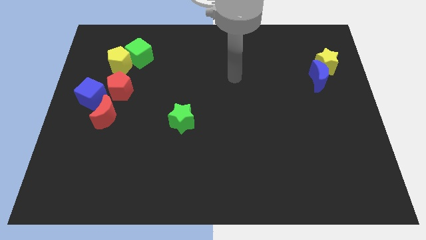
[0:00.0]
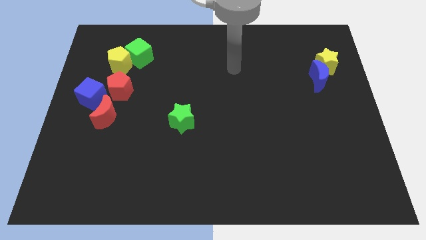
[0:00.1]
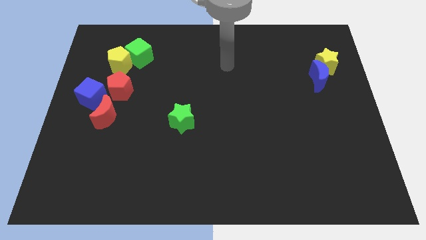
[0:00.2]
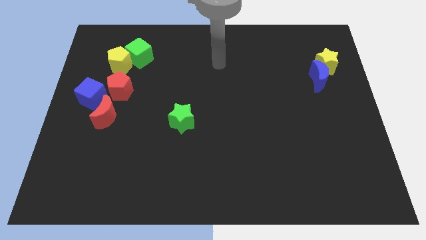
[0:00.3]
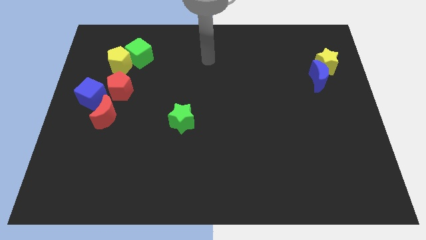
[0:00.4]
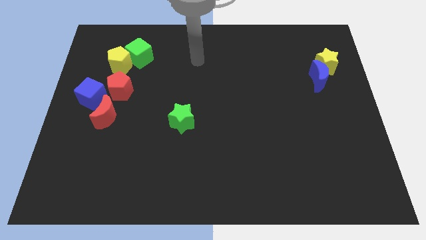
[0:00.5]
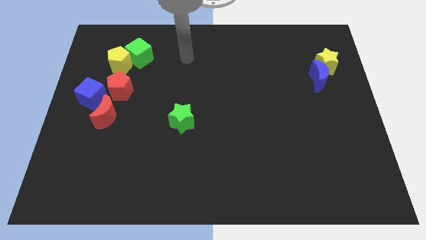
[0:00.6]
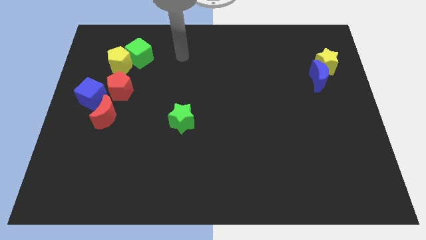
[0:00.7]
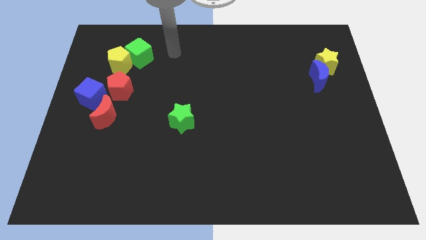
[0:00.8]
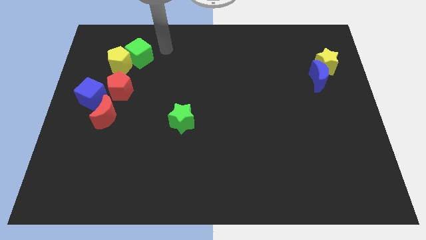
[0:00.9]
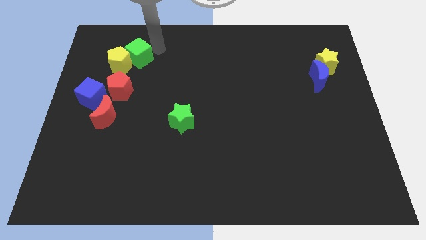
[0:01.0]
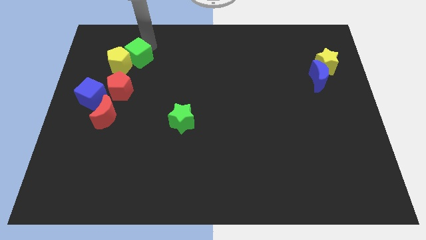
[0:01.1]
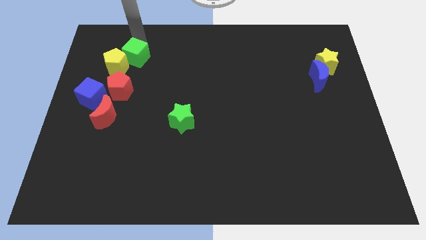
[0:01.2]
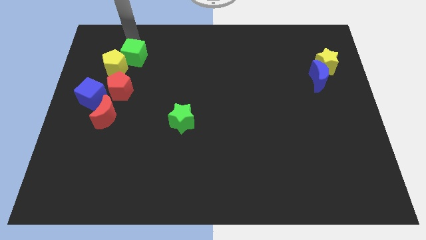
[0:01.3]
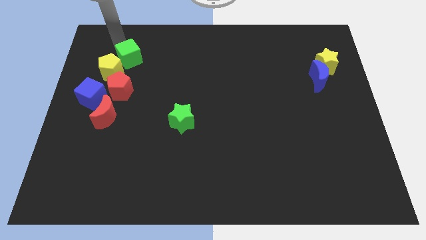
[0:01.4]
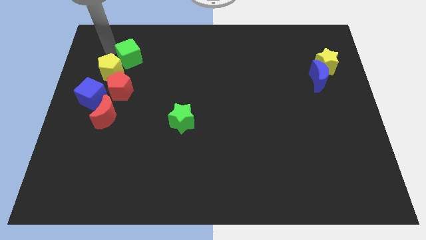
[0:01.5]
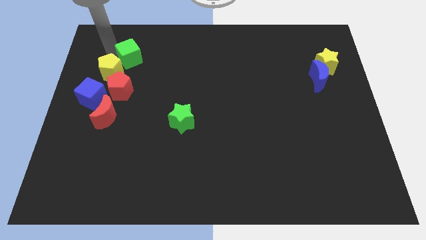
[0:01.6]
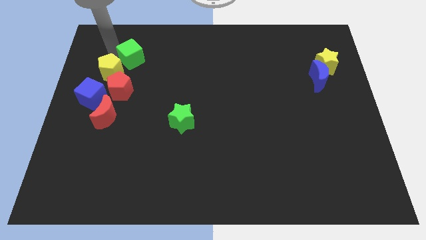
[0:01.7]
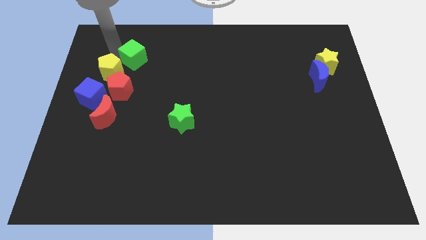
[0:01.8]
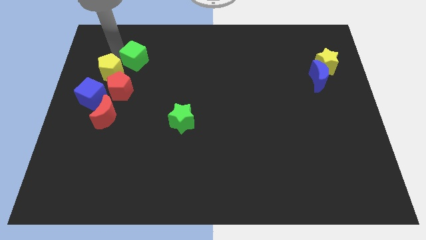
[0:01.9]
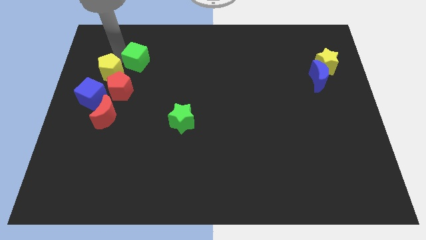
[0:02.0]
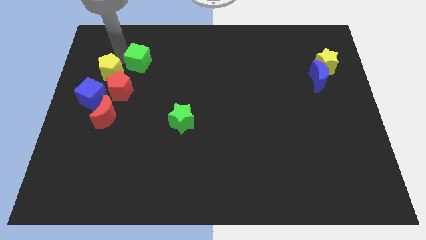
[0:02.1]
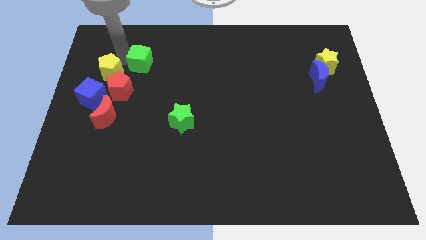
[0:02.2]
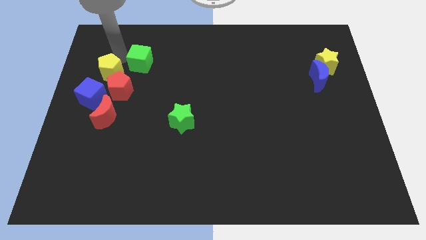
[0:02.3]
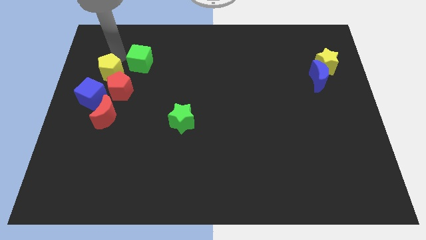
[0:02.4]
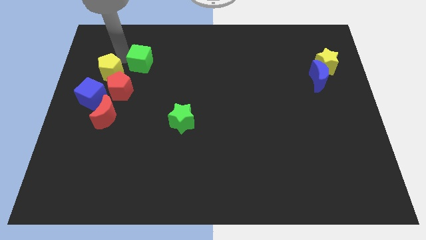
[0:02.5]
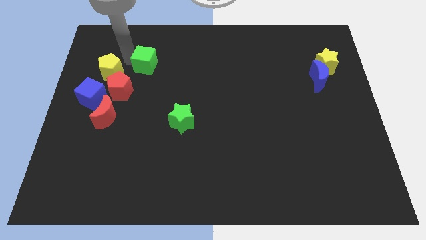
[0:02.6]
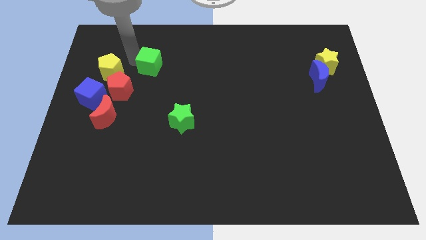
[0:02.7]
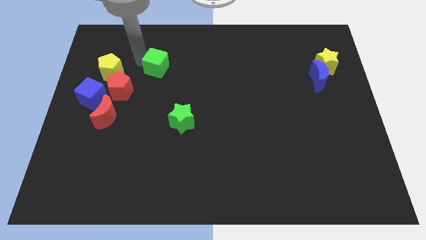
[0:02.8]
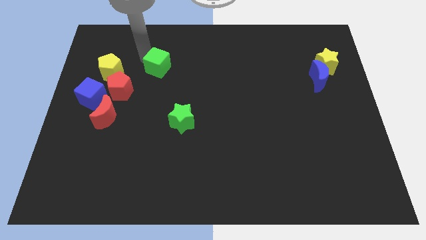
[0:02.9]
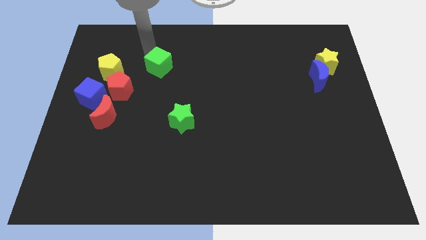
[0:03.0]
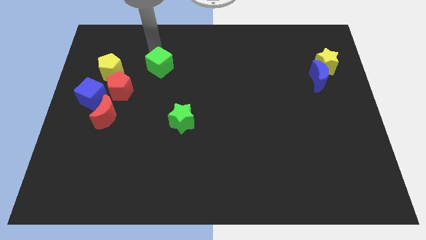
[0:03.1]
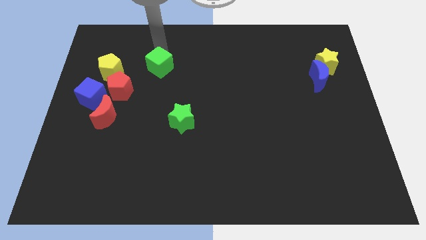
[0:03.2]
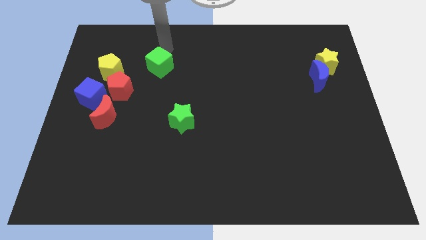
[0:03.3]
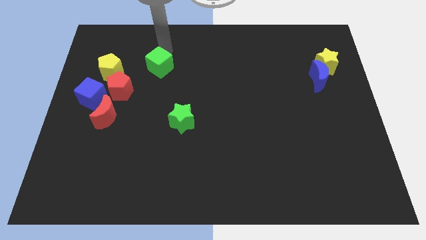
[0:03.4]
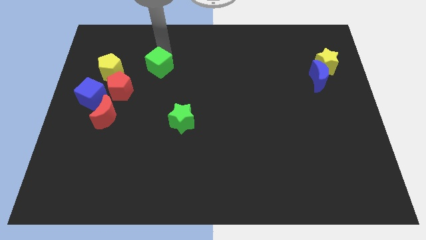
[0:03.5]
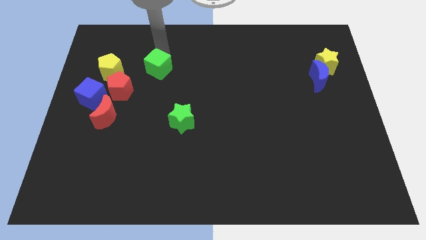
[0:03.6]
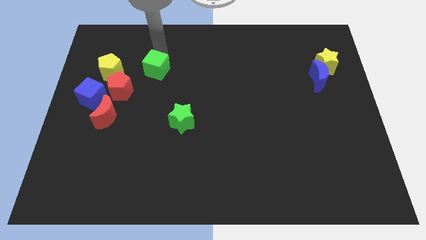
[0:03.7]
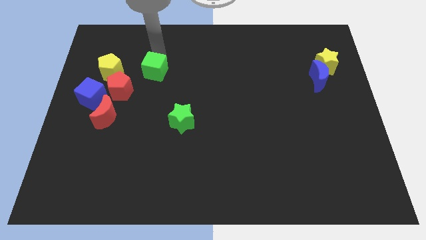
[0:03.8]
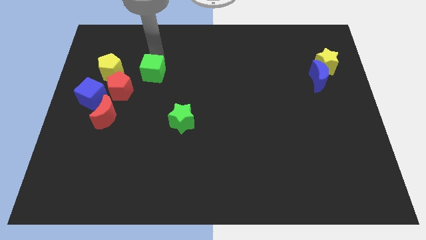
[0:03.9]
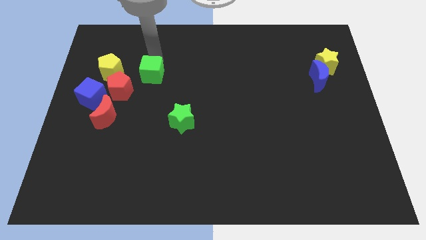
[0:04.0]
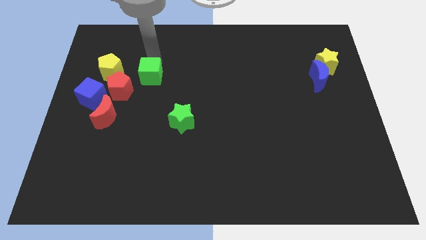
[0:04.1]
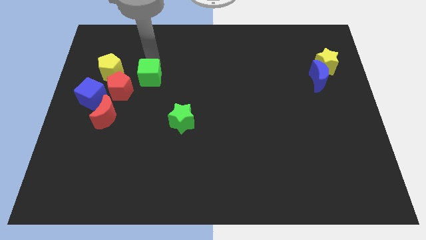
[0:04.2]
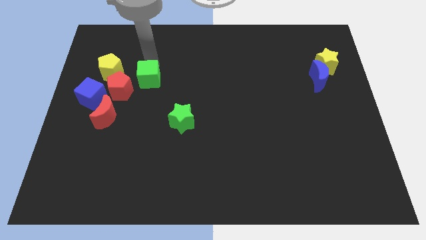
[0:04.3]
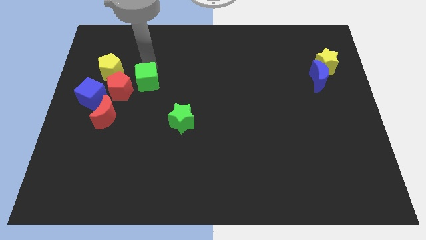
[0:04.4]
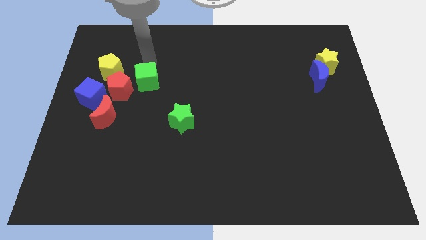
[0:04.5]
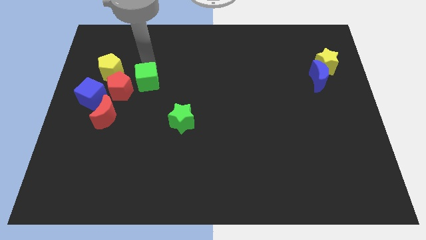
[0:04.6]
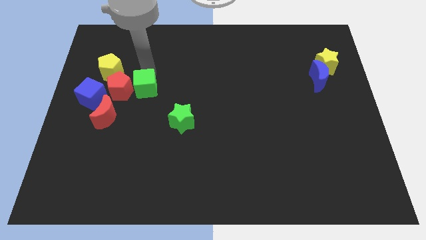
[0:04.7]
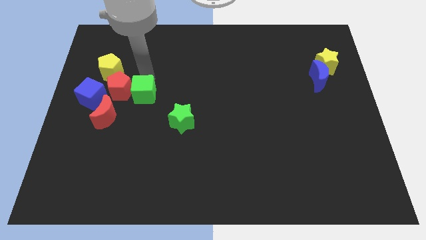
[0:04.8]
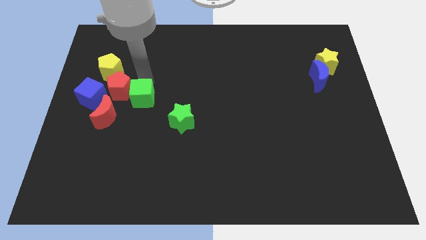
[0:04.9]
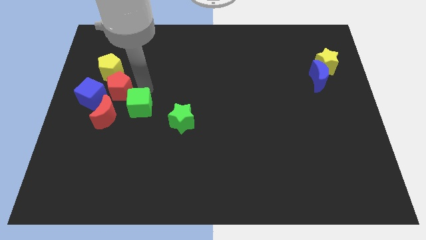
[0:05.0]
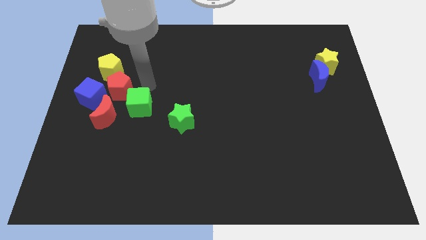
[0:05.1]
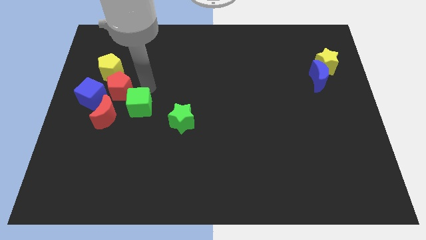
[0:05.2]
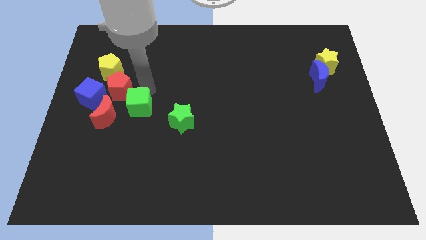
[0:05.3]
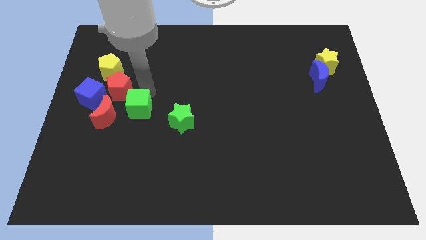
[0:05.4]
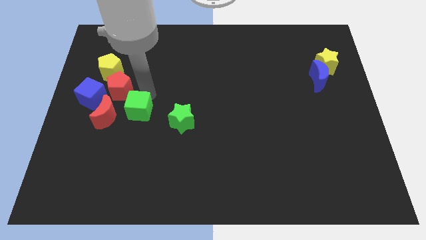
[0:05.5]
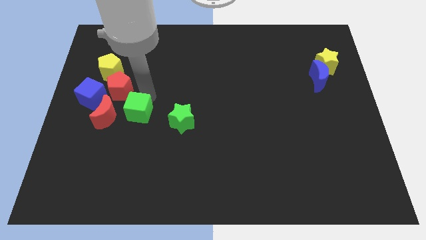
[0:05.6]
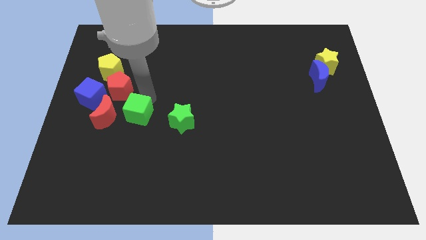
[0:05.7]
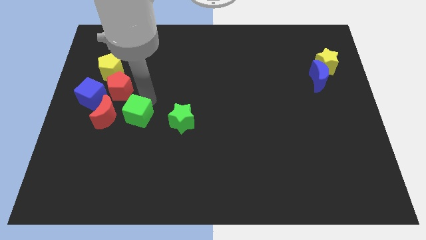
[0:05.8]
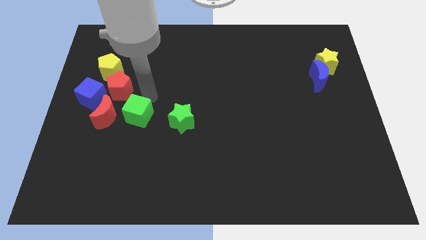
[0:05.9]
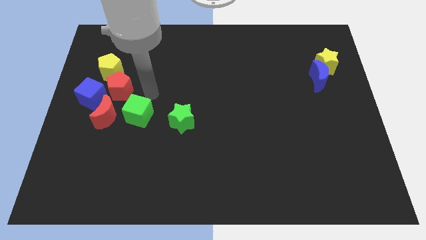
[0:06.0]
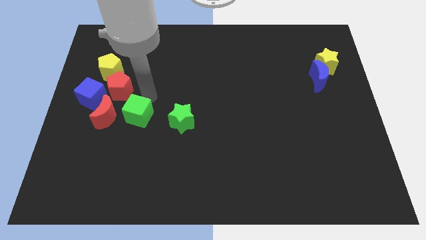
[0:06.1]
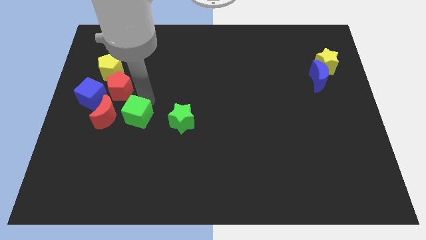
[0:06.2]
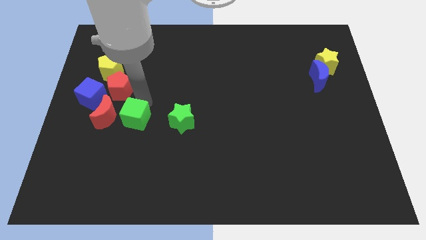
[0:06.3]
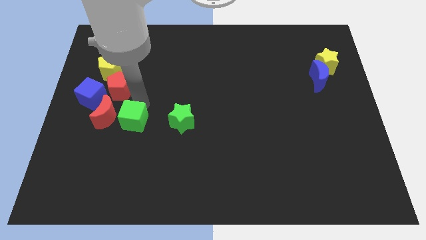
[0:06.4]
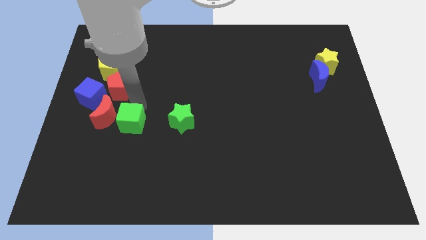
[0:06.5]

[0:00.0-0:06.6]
push the green cube to the bottom right of the blue cube

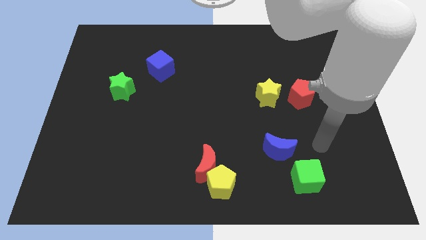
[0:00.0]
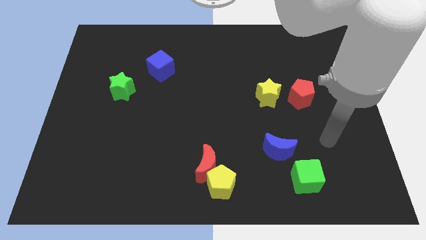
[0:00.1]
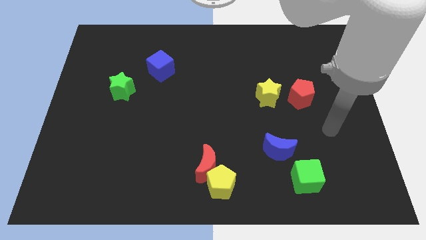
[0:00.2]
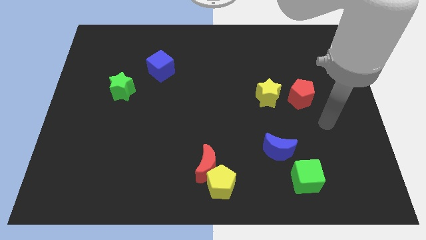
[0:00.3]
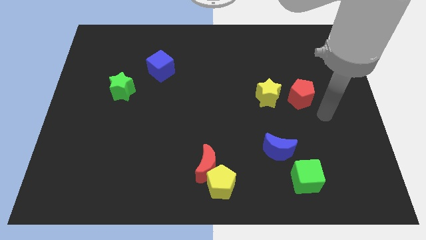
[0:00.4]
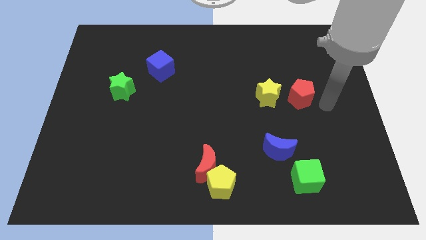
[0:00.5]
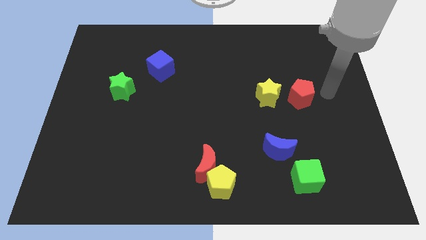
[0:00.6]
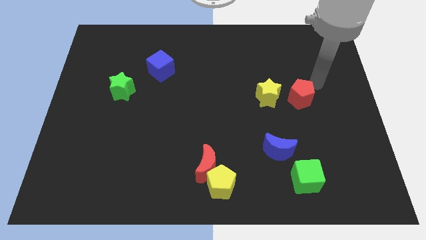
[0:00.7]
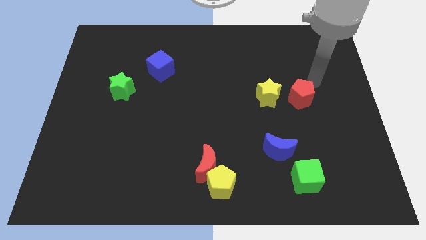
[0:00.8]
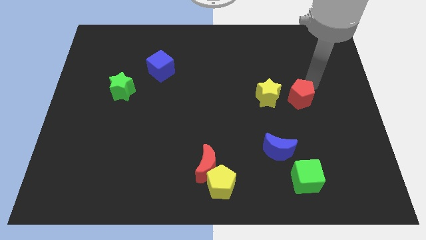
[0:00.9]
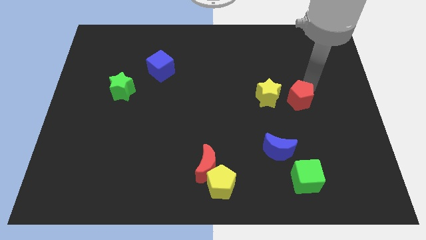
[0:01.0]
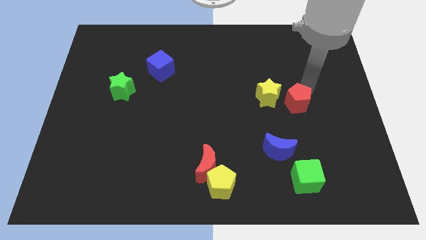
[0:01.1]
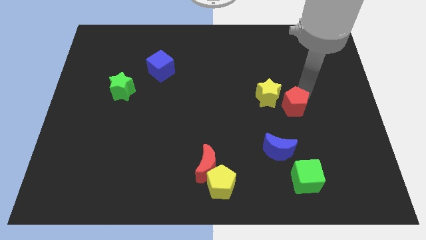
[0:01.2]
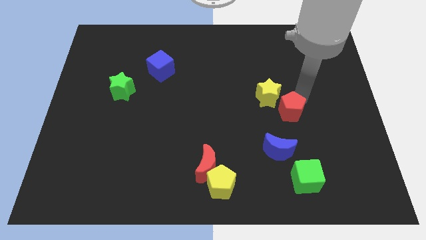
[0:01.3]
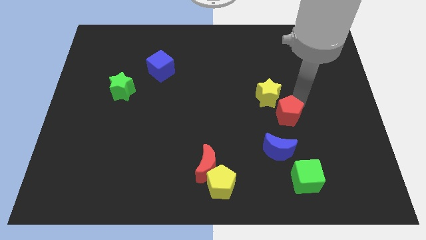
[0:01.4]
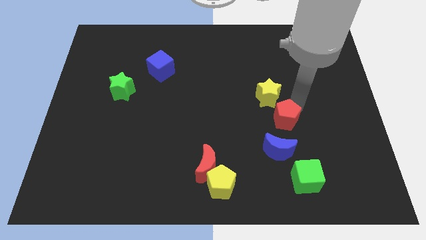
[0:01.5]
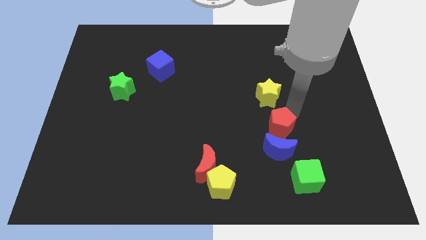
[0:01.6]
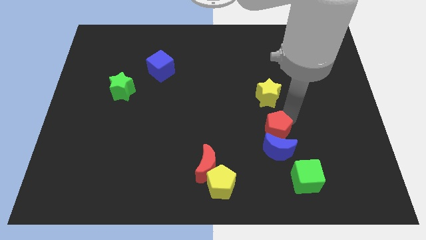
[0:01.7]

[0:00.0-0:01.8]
move the red pentagon diagonally up and to the left of the blue moon
